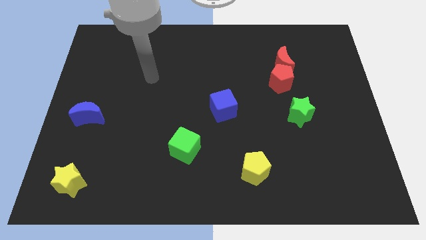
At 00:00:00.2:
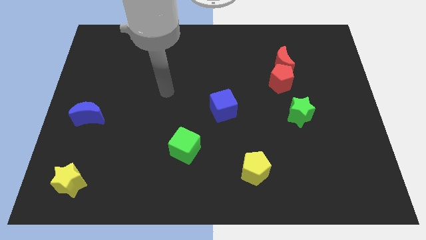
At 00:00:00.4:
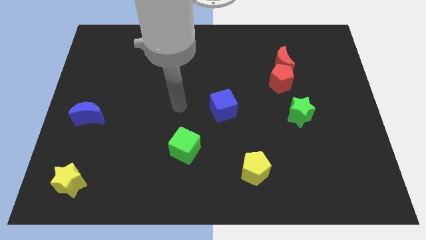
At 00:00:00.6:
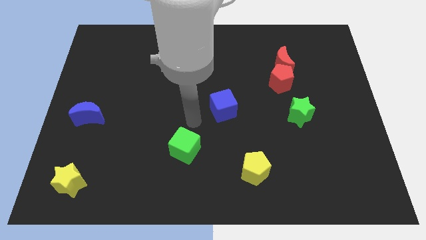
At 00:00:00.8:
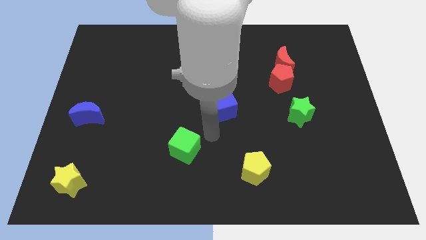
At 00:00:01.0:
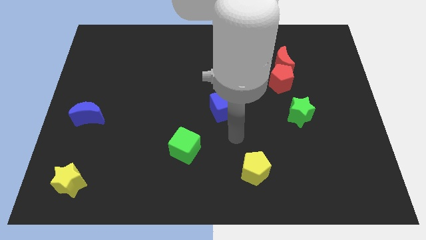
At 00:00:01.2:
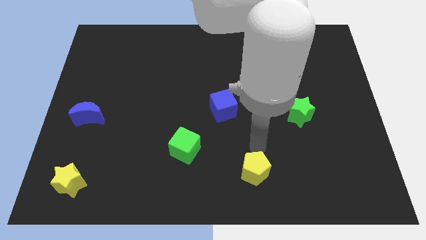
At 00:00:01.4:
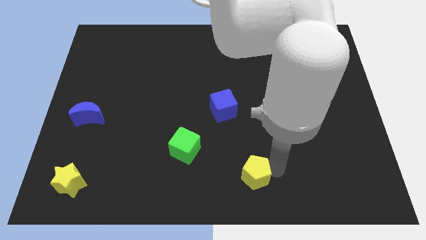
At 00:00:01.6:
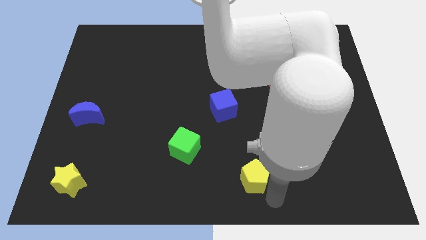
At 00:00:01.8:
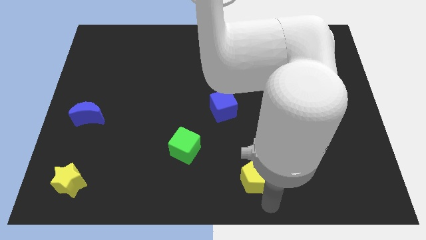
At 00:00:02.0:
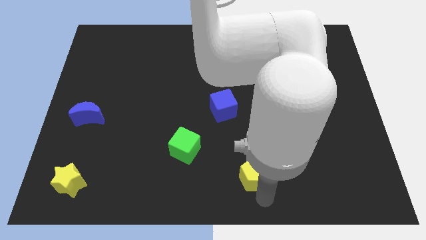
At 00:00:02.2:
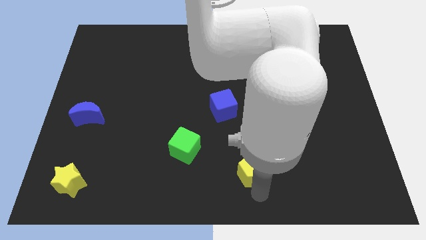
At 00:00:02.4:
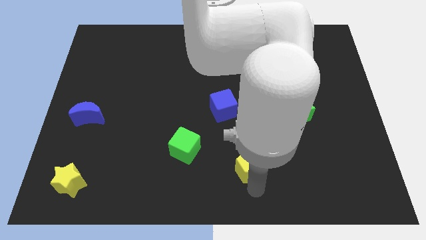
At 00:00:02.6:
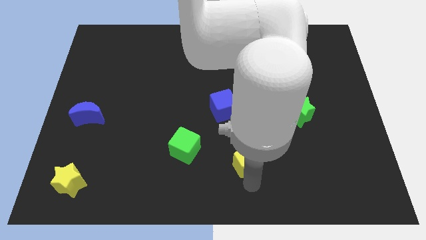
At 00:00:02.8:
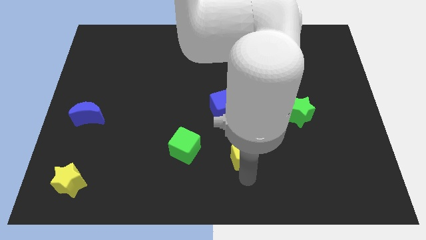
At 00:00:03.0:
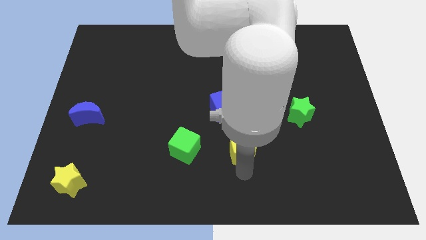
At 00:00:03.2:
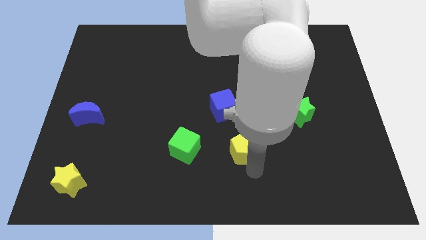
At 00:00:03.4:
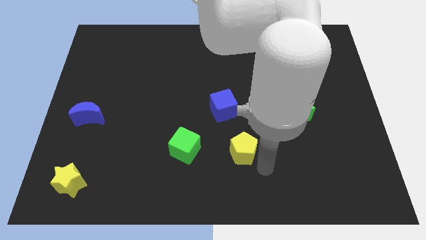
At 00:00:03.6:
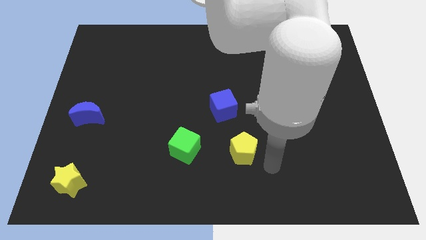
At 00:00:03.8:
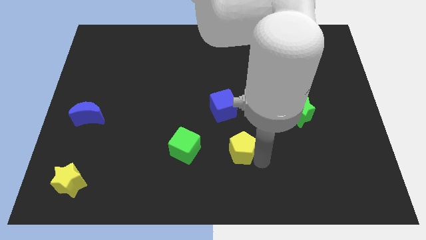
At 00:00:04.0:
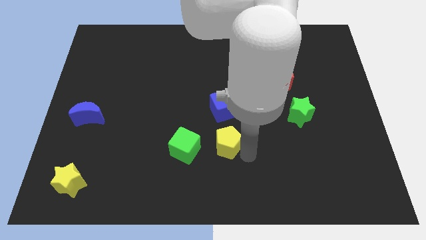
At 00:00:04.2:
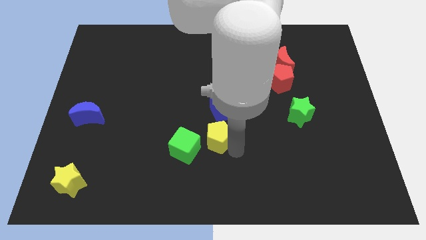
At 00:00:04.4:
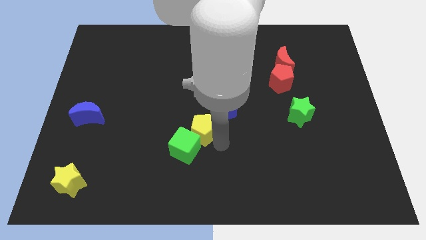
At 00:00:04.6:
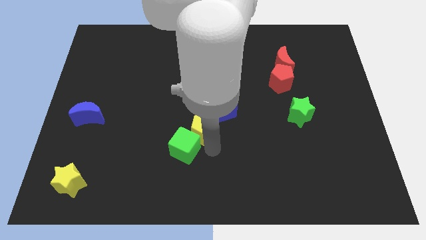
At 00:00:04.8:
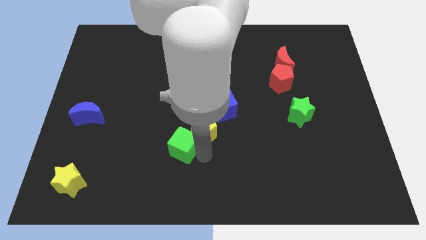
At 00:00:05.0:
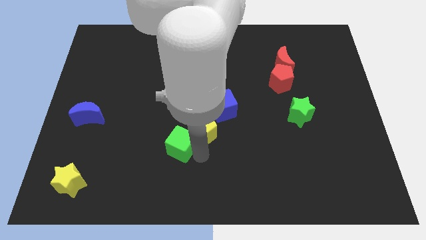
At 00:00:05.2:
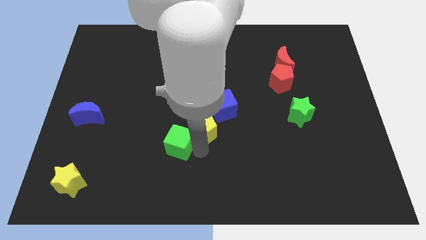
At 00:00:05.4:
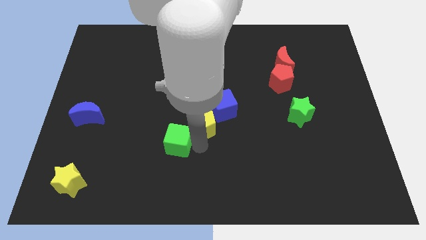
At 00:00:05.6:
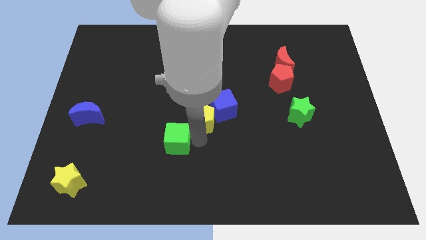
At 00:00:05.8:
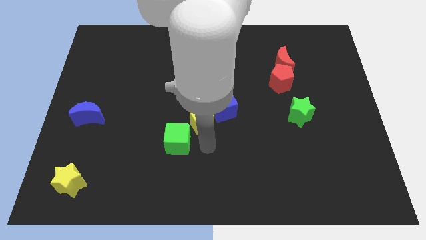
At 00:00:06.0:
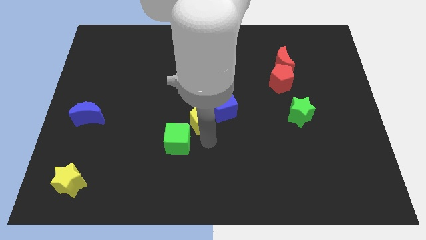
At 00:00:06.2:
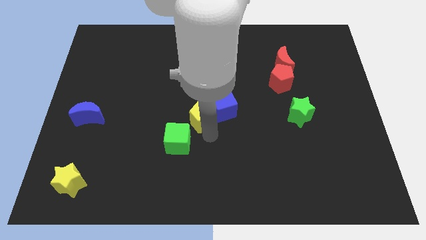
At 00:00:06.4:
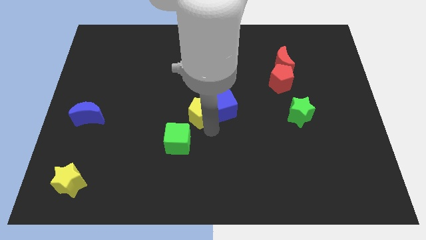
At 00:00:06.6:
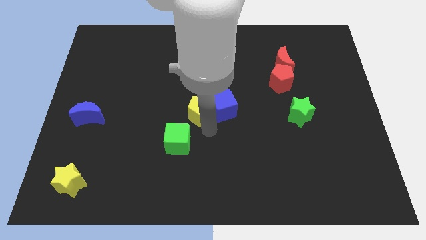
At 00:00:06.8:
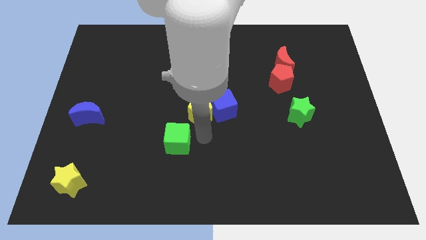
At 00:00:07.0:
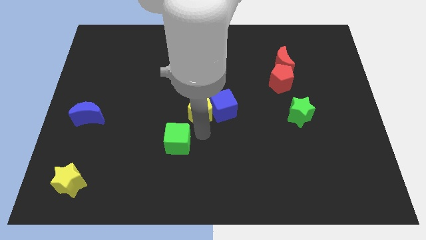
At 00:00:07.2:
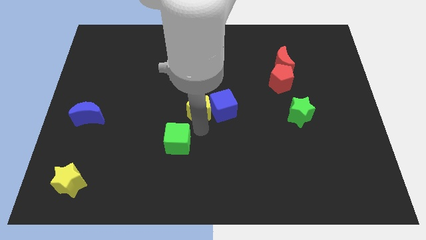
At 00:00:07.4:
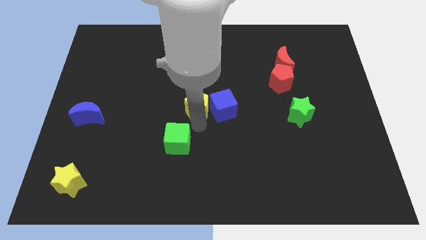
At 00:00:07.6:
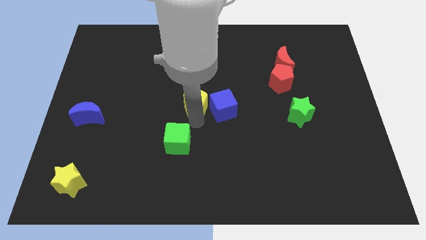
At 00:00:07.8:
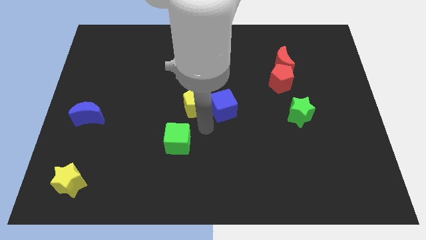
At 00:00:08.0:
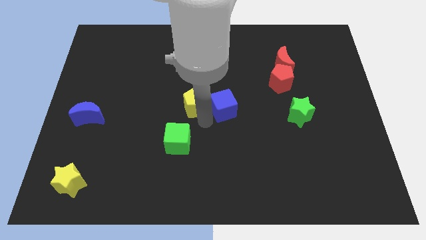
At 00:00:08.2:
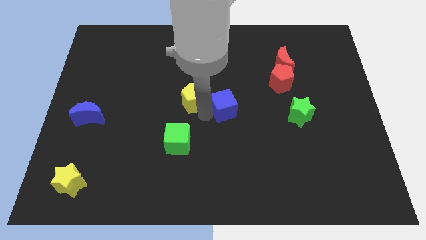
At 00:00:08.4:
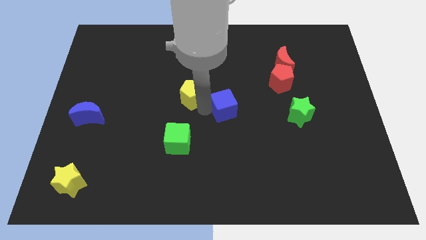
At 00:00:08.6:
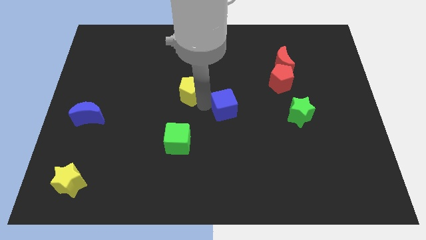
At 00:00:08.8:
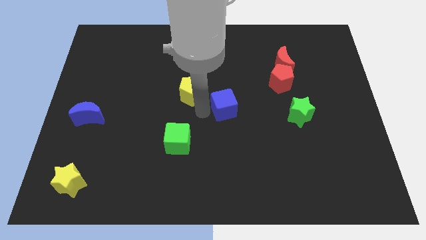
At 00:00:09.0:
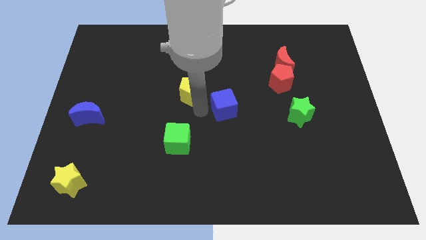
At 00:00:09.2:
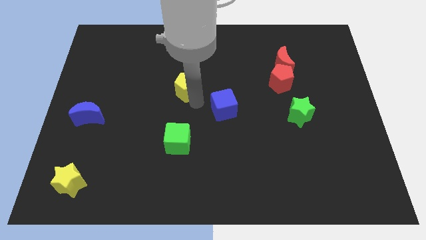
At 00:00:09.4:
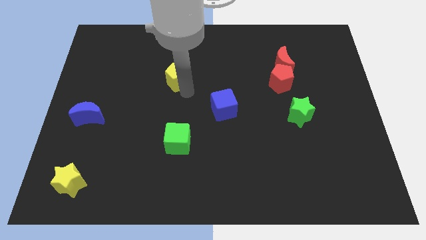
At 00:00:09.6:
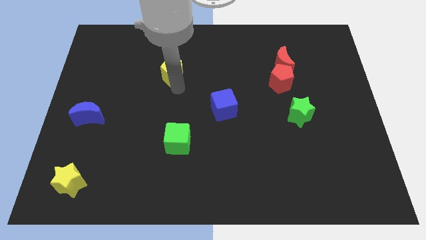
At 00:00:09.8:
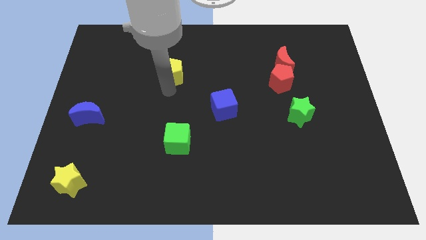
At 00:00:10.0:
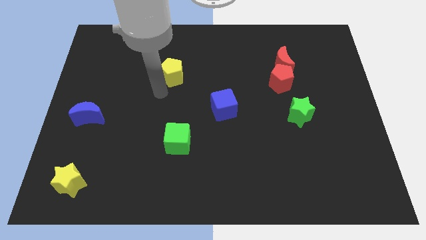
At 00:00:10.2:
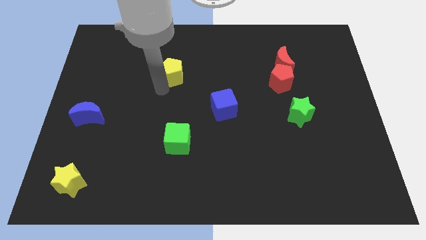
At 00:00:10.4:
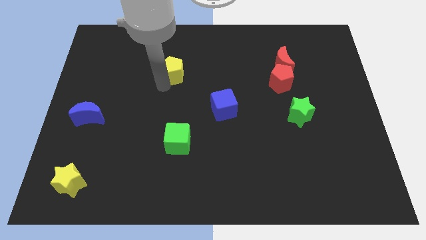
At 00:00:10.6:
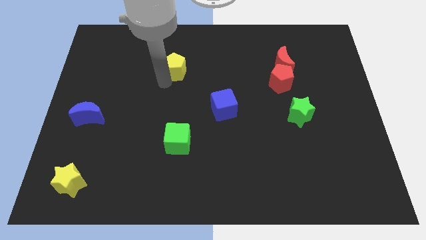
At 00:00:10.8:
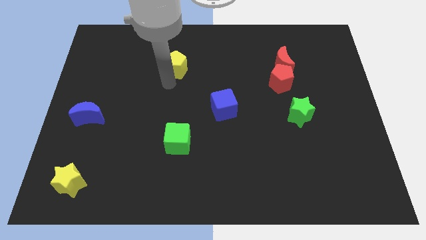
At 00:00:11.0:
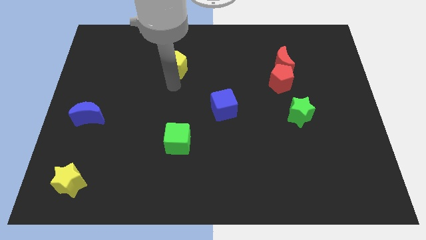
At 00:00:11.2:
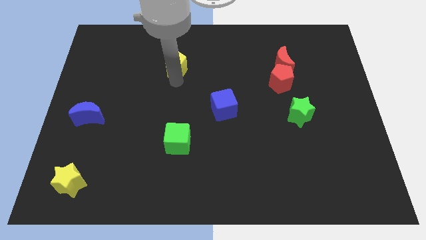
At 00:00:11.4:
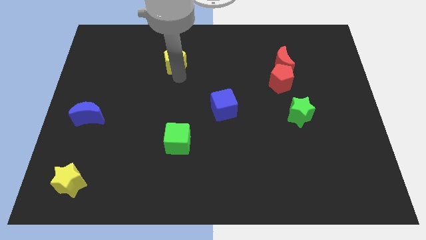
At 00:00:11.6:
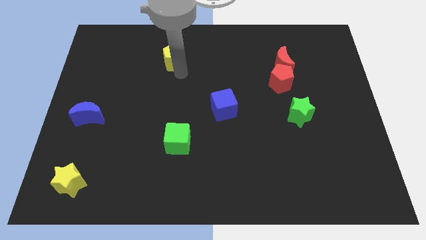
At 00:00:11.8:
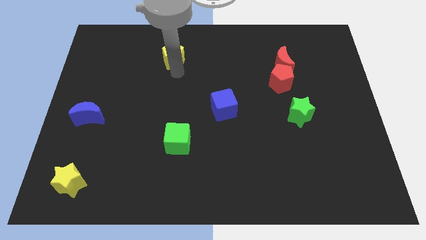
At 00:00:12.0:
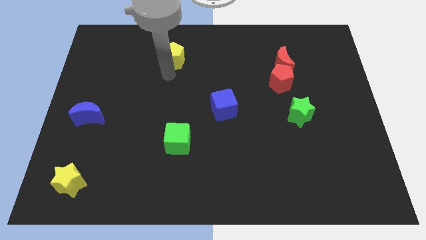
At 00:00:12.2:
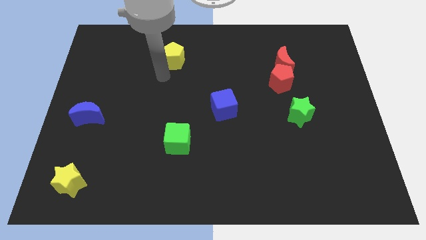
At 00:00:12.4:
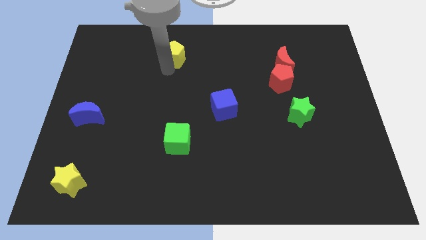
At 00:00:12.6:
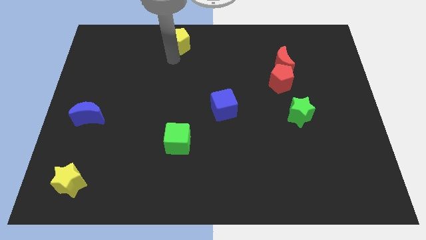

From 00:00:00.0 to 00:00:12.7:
push the yellow pentagon to the top

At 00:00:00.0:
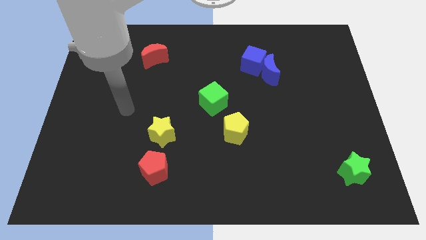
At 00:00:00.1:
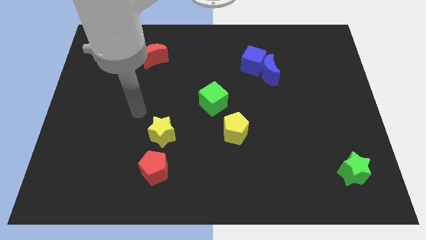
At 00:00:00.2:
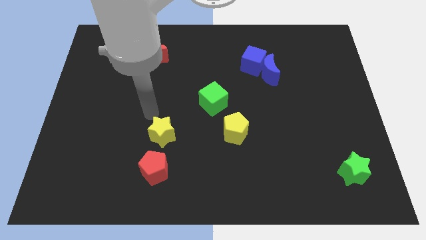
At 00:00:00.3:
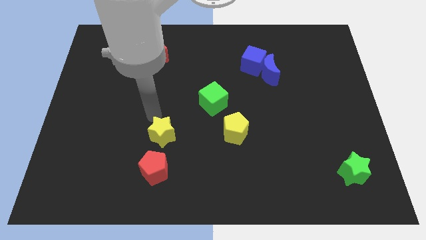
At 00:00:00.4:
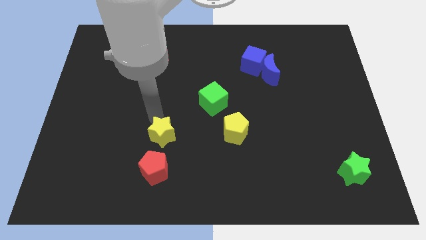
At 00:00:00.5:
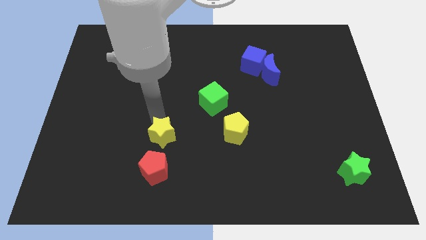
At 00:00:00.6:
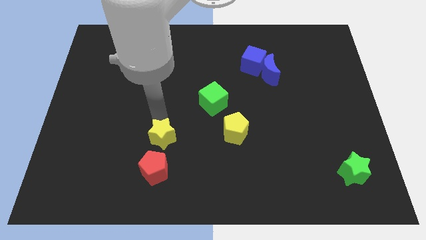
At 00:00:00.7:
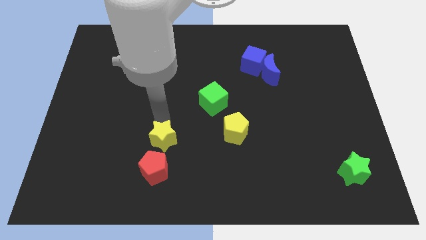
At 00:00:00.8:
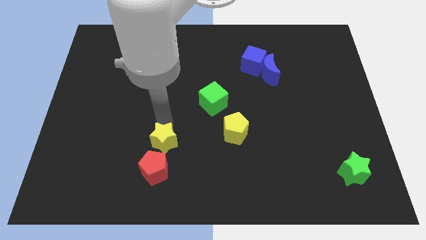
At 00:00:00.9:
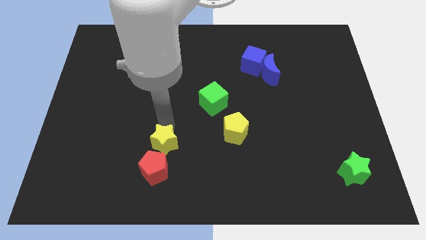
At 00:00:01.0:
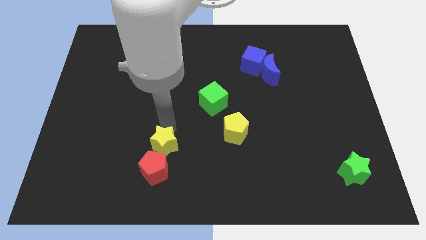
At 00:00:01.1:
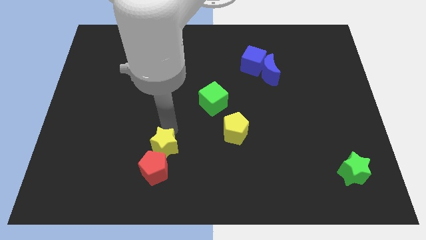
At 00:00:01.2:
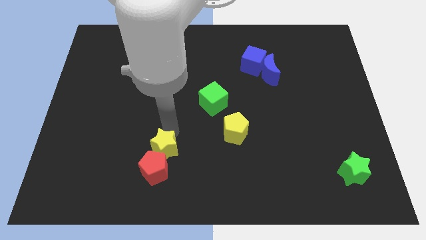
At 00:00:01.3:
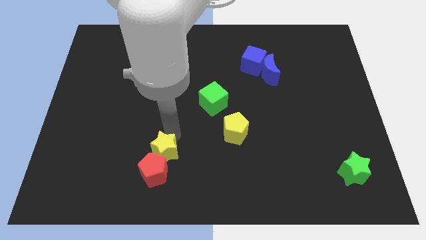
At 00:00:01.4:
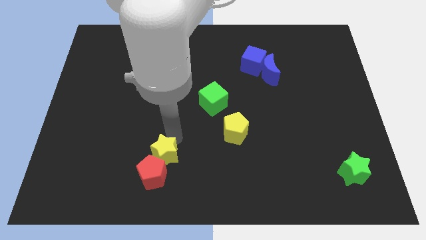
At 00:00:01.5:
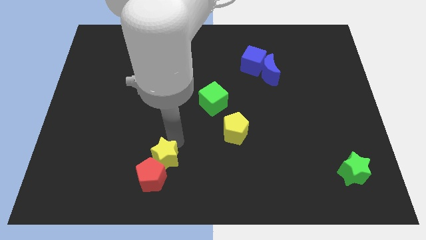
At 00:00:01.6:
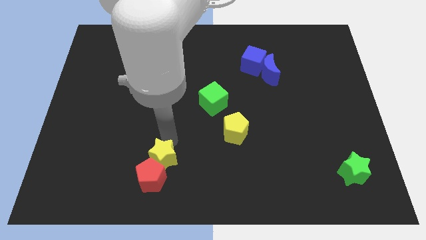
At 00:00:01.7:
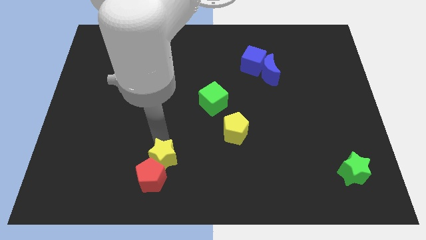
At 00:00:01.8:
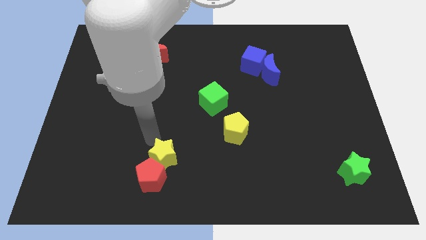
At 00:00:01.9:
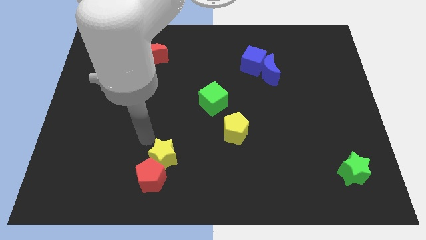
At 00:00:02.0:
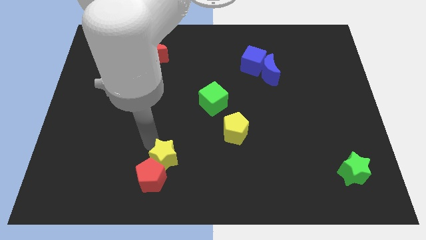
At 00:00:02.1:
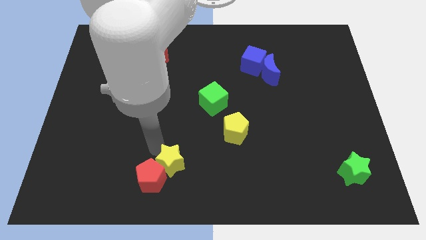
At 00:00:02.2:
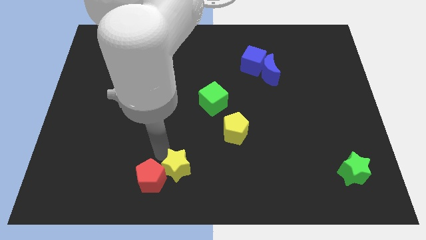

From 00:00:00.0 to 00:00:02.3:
move the yellow star to the bottom side
